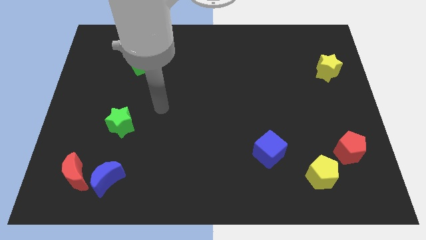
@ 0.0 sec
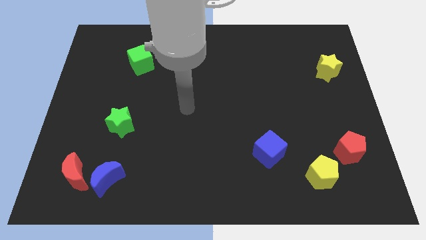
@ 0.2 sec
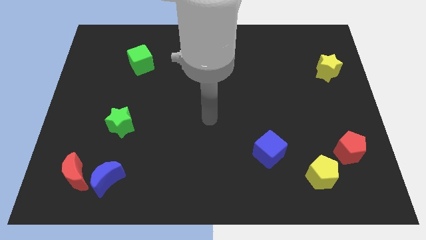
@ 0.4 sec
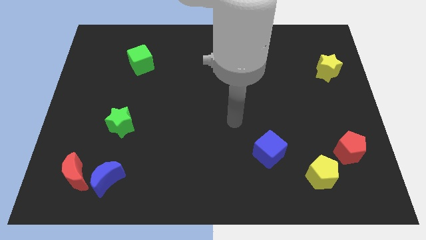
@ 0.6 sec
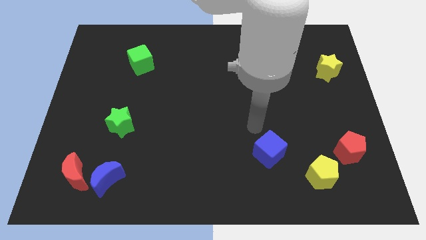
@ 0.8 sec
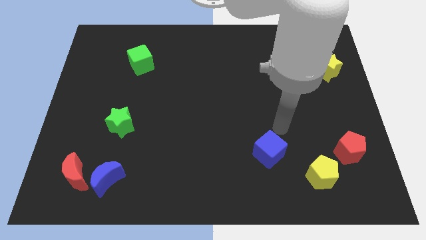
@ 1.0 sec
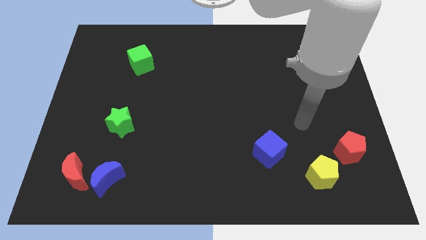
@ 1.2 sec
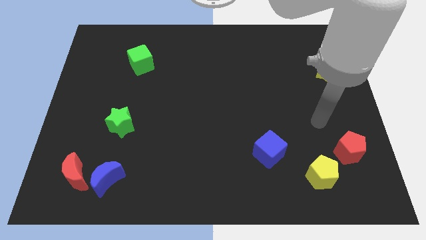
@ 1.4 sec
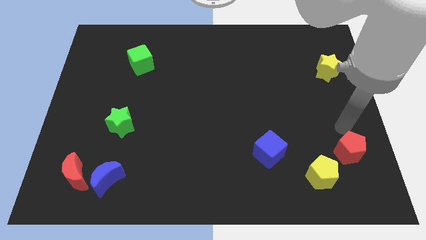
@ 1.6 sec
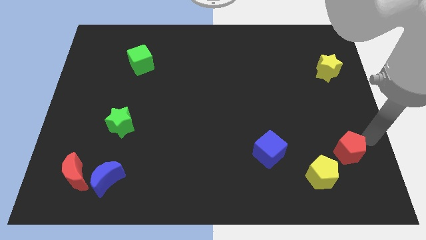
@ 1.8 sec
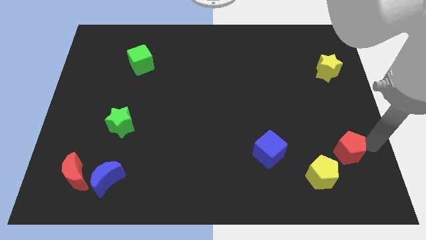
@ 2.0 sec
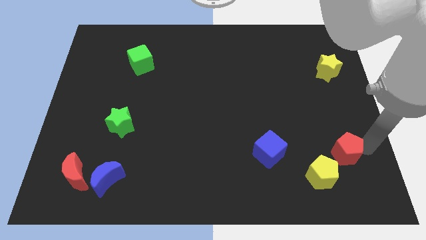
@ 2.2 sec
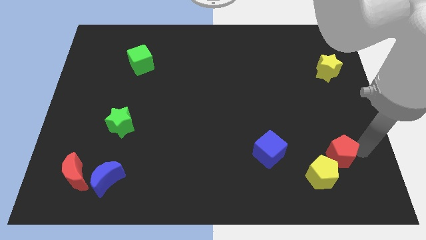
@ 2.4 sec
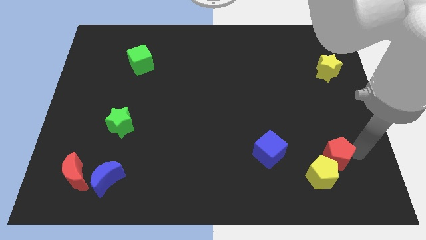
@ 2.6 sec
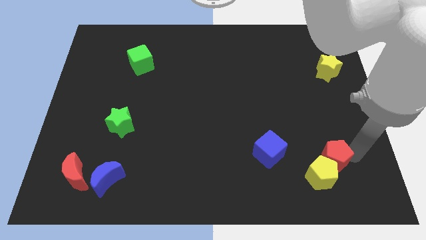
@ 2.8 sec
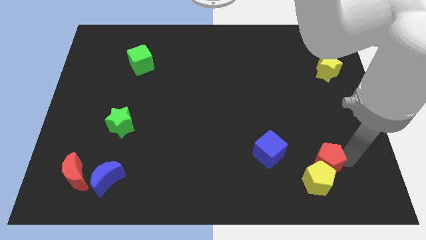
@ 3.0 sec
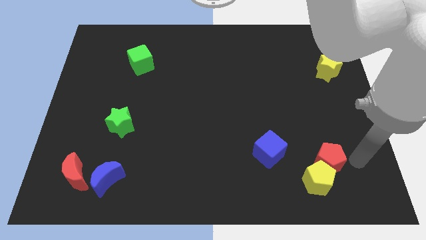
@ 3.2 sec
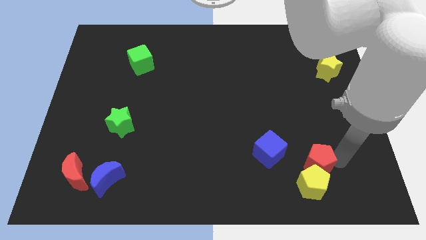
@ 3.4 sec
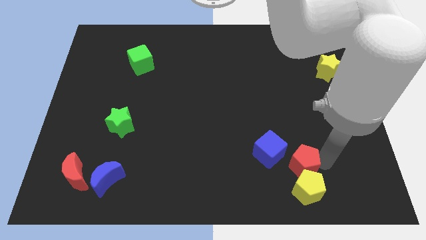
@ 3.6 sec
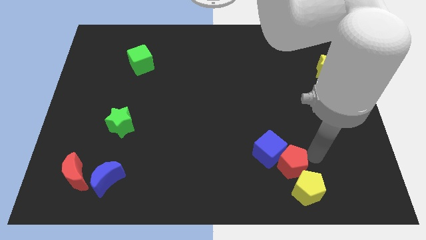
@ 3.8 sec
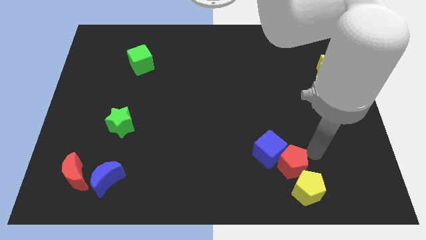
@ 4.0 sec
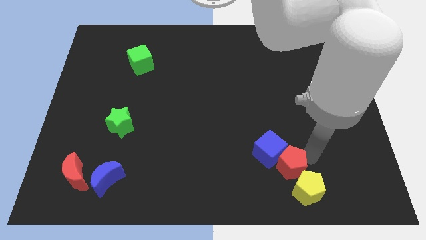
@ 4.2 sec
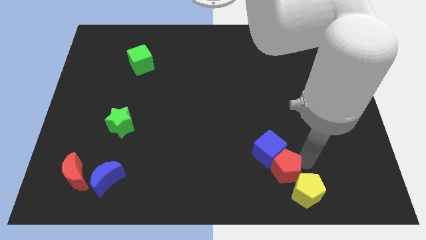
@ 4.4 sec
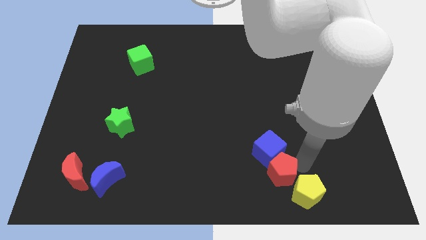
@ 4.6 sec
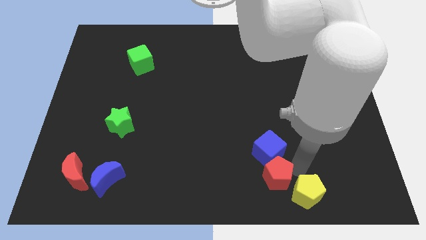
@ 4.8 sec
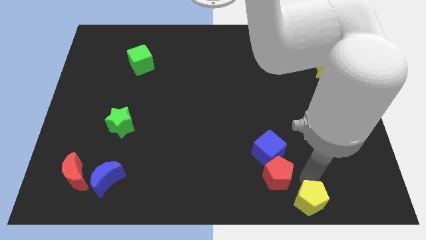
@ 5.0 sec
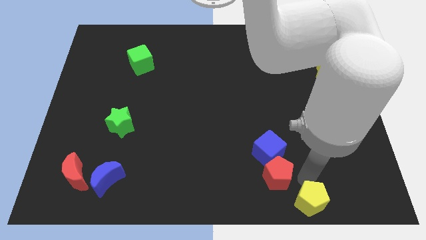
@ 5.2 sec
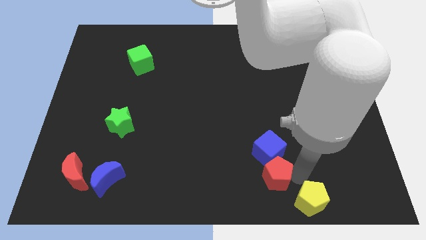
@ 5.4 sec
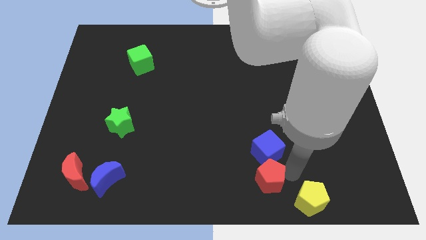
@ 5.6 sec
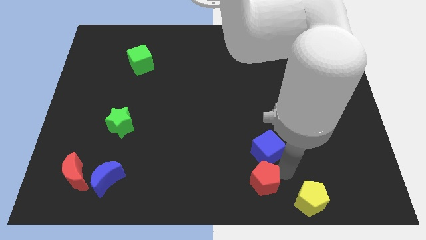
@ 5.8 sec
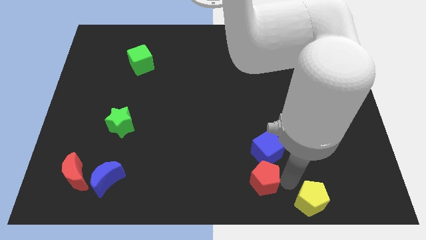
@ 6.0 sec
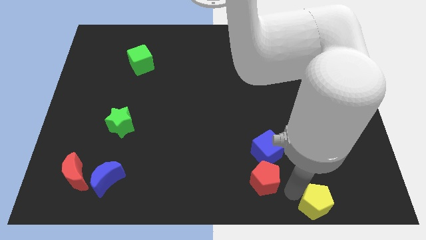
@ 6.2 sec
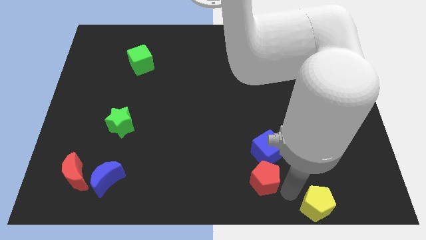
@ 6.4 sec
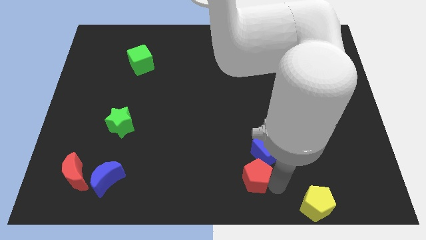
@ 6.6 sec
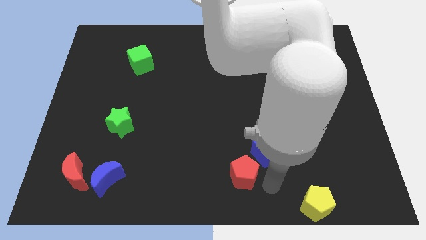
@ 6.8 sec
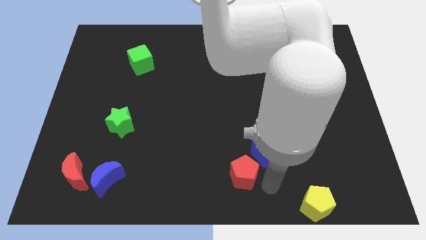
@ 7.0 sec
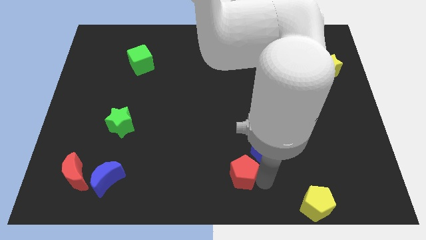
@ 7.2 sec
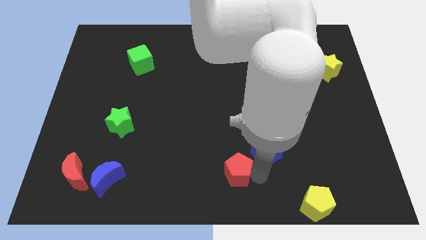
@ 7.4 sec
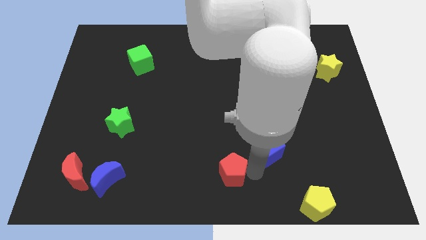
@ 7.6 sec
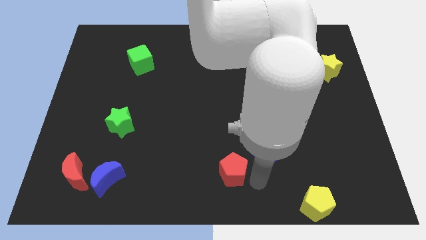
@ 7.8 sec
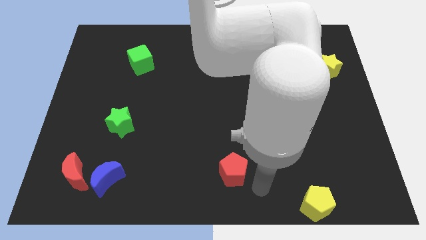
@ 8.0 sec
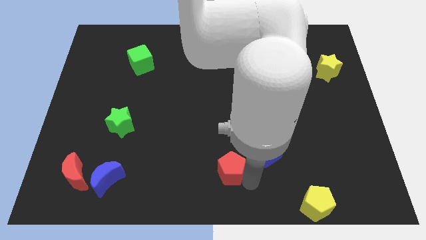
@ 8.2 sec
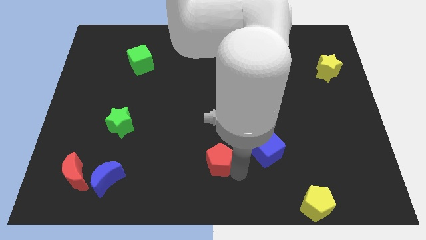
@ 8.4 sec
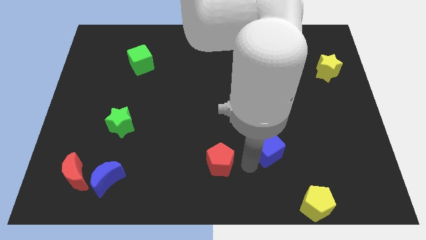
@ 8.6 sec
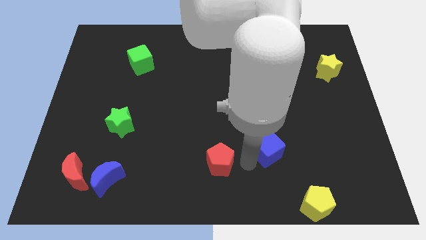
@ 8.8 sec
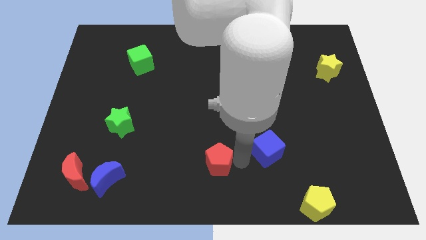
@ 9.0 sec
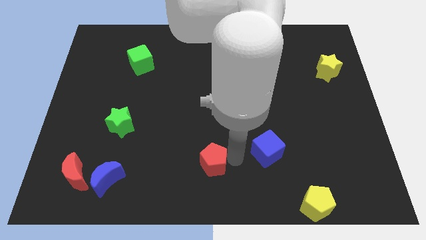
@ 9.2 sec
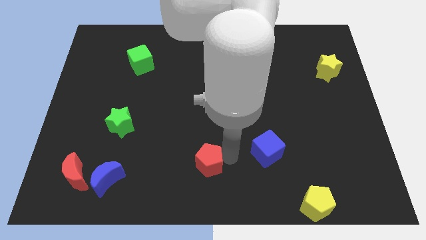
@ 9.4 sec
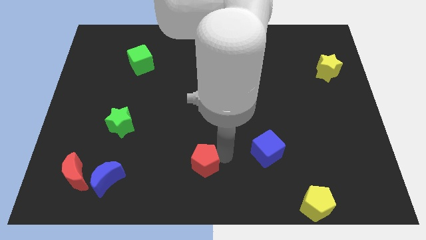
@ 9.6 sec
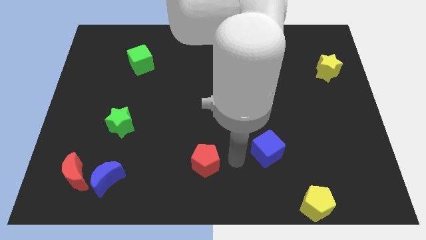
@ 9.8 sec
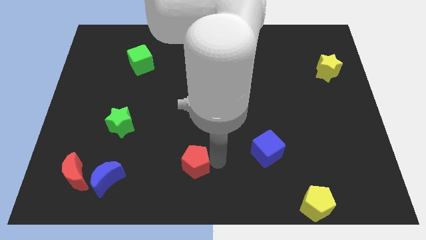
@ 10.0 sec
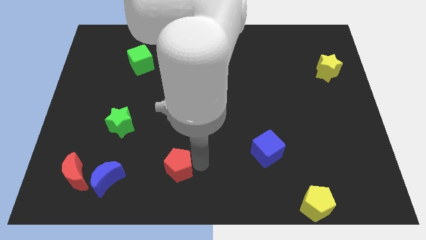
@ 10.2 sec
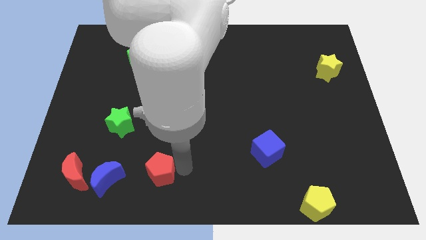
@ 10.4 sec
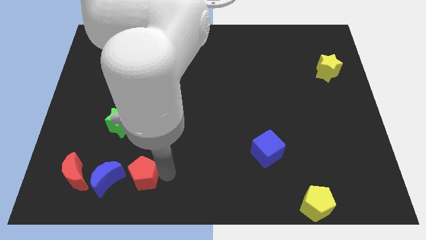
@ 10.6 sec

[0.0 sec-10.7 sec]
push the red pentagon diagonally up and to the right of the blue moon

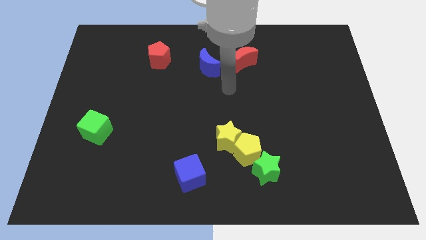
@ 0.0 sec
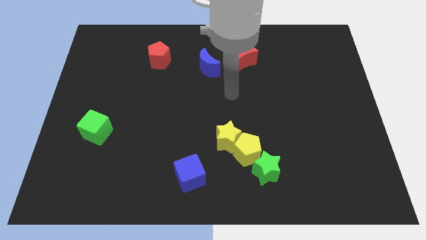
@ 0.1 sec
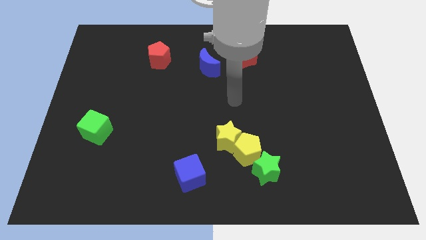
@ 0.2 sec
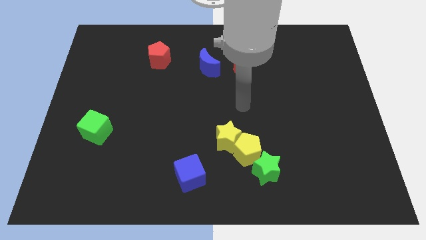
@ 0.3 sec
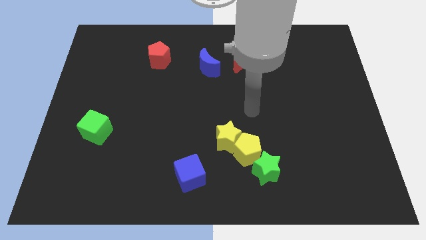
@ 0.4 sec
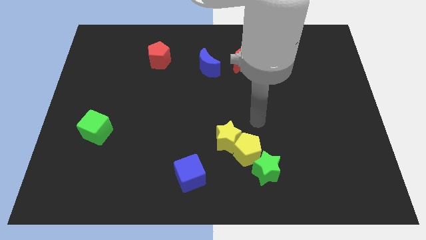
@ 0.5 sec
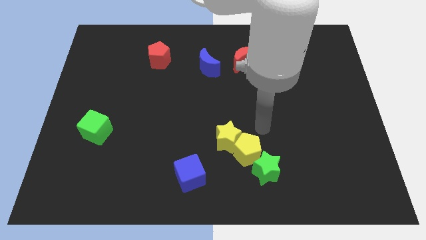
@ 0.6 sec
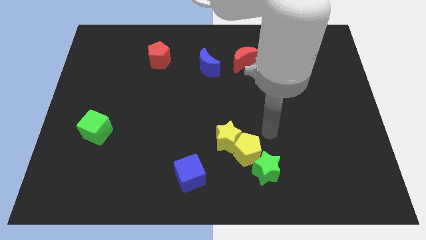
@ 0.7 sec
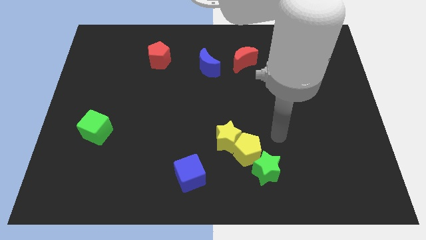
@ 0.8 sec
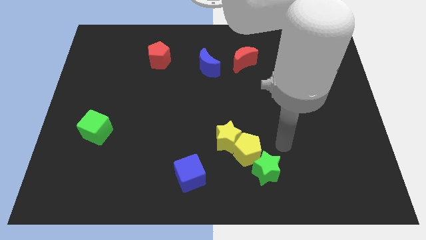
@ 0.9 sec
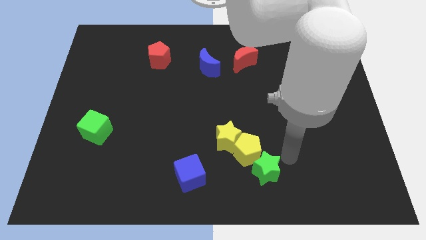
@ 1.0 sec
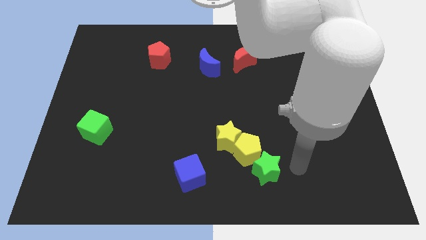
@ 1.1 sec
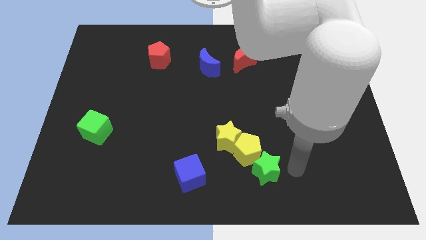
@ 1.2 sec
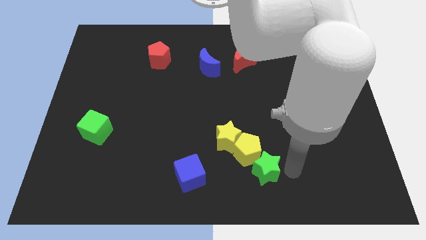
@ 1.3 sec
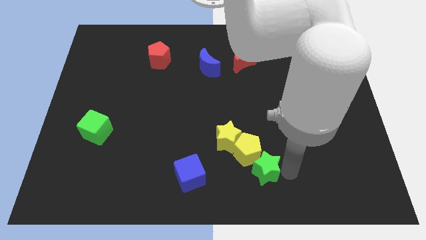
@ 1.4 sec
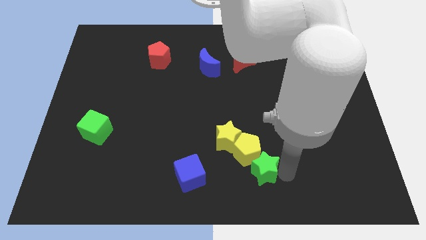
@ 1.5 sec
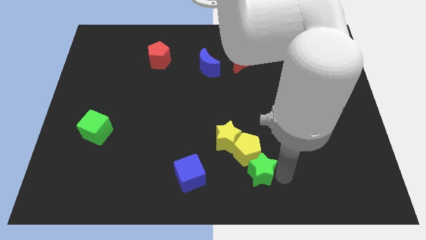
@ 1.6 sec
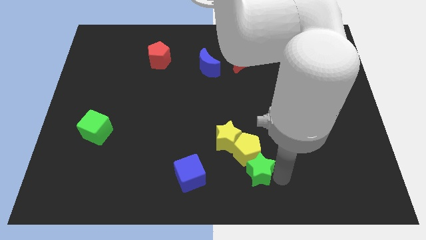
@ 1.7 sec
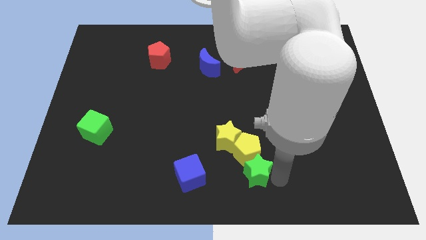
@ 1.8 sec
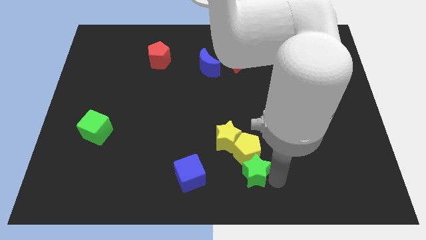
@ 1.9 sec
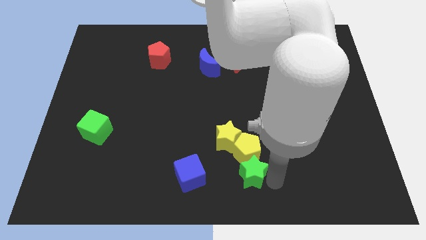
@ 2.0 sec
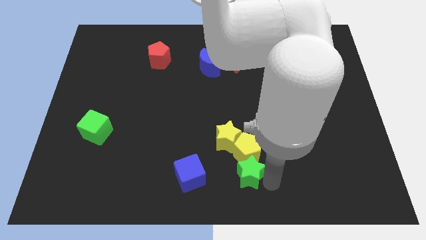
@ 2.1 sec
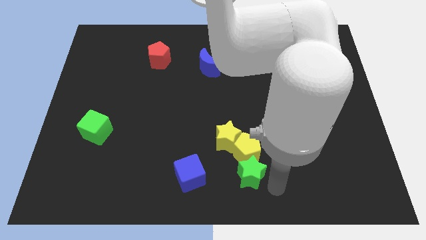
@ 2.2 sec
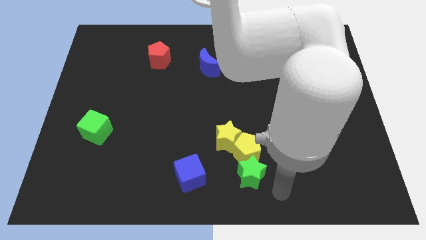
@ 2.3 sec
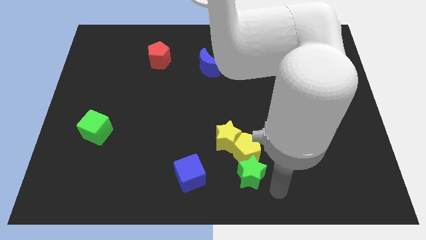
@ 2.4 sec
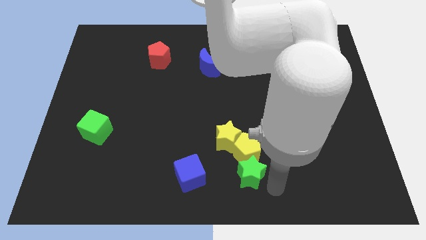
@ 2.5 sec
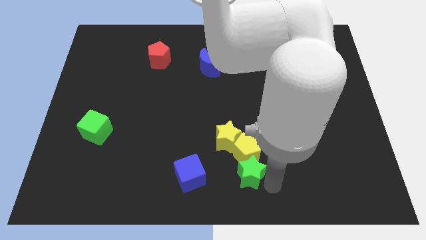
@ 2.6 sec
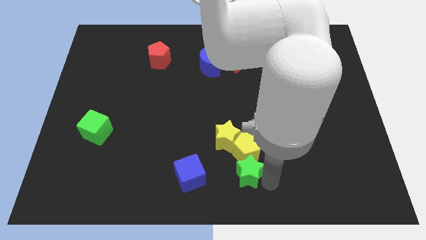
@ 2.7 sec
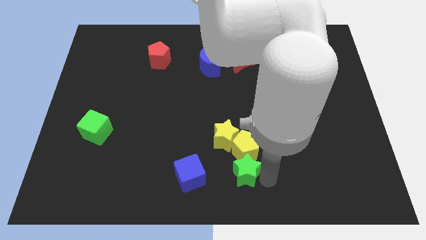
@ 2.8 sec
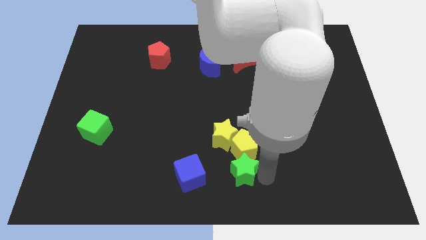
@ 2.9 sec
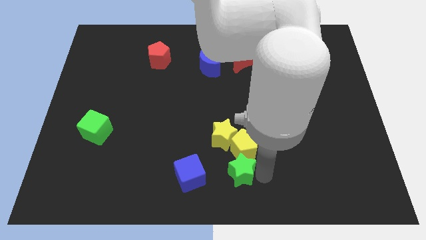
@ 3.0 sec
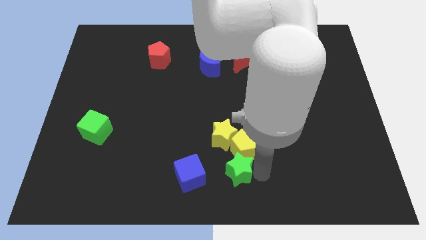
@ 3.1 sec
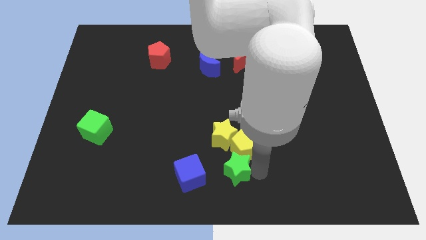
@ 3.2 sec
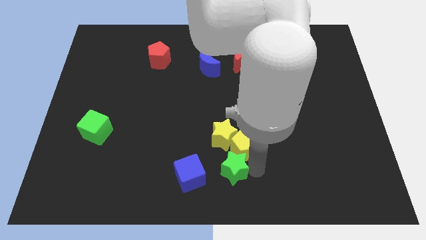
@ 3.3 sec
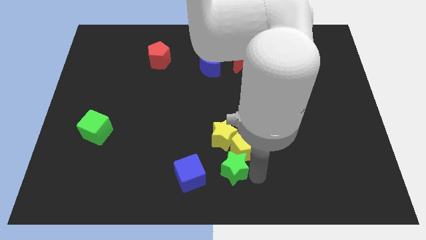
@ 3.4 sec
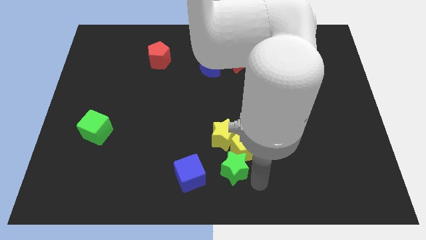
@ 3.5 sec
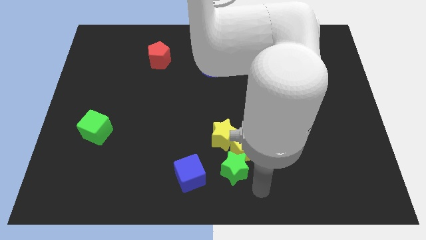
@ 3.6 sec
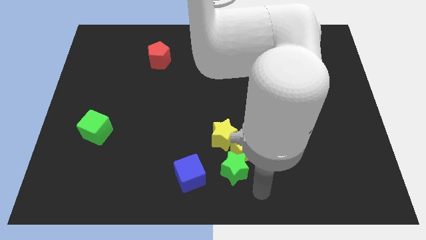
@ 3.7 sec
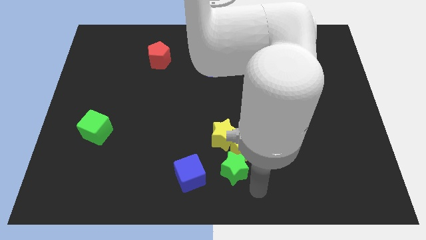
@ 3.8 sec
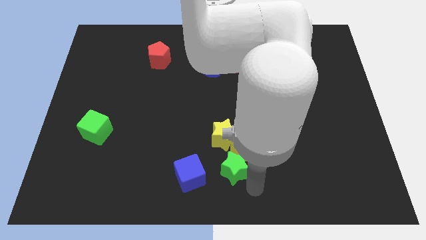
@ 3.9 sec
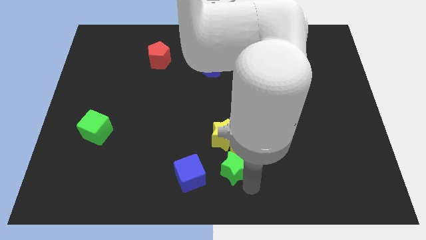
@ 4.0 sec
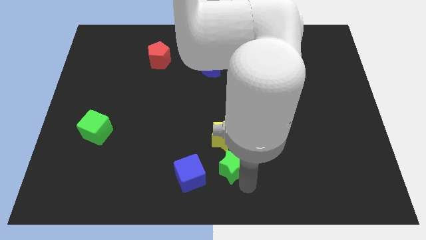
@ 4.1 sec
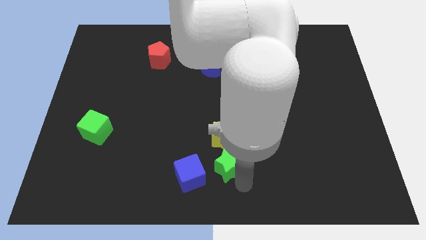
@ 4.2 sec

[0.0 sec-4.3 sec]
slide the green star diagonally up and to the right of the blue cube
